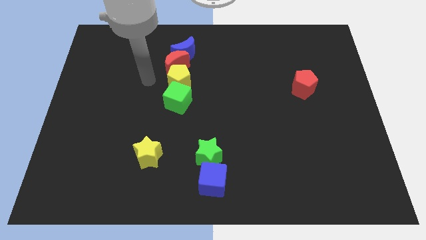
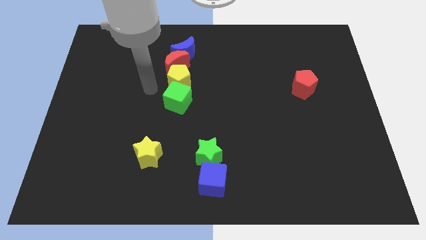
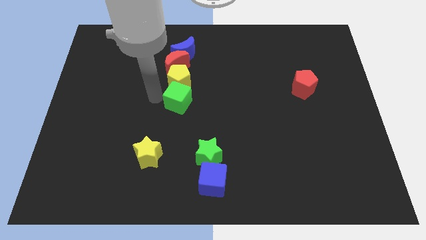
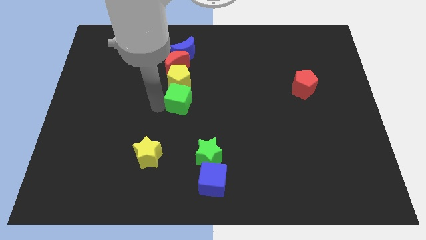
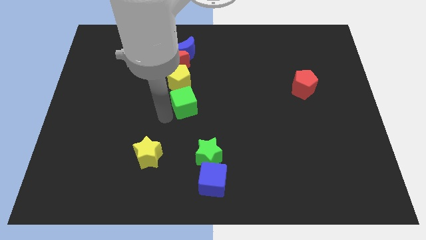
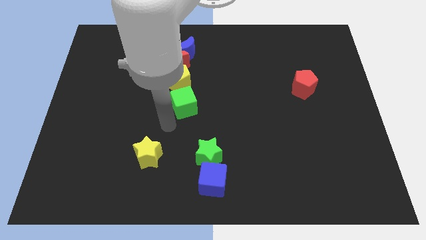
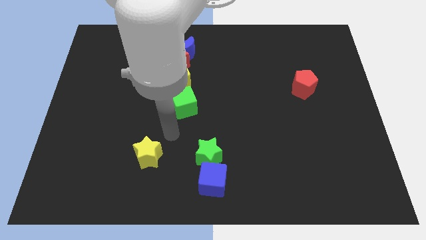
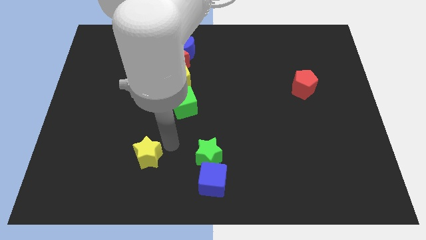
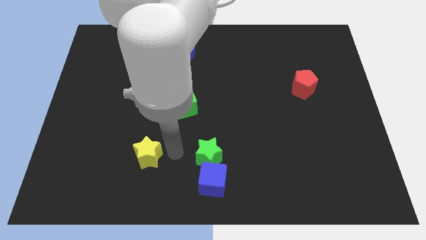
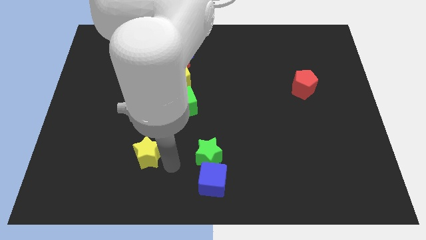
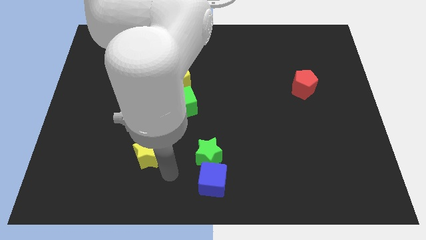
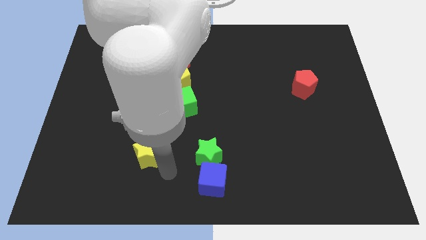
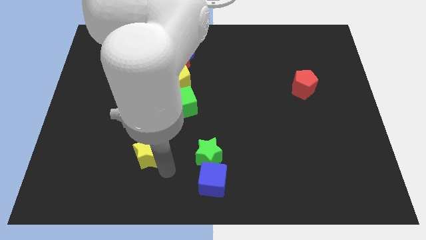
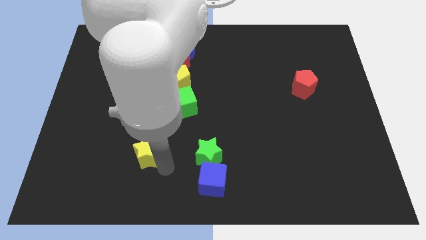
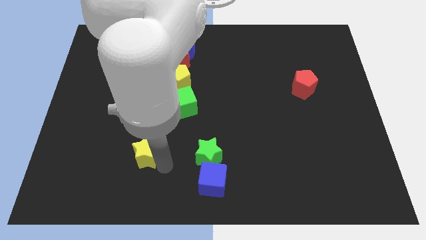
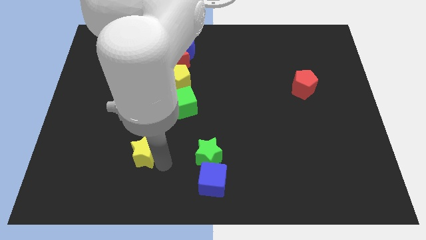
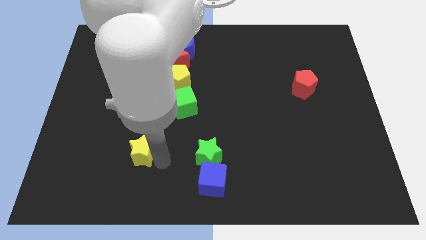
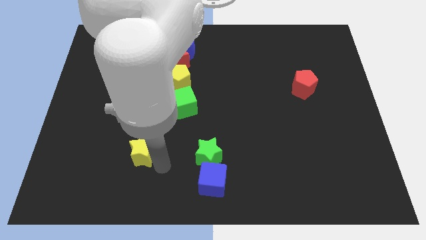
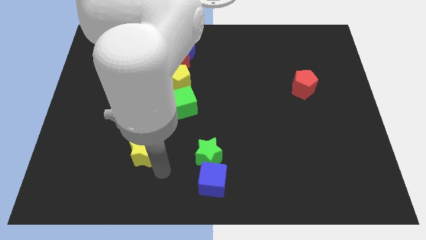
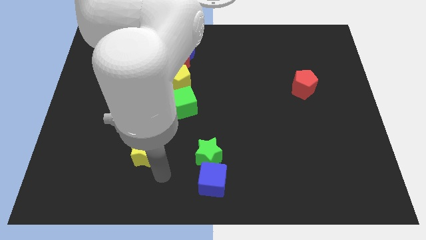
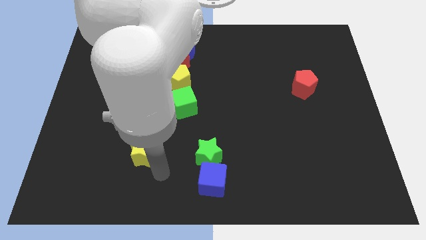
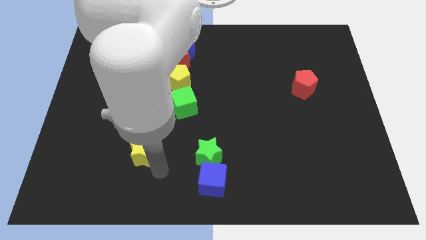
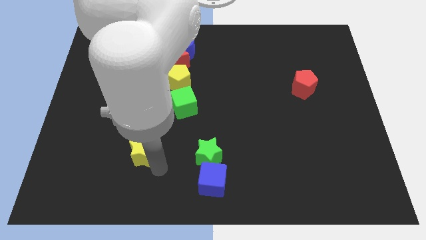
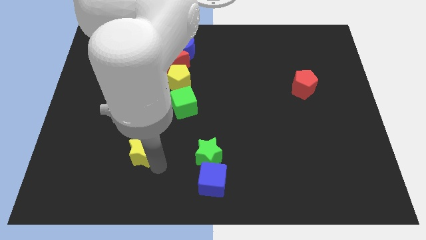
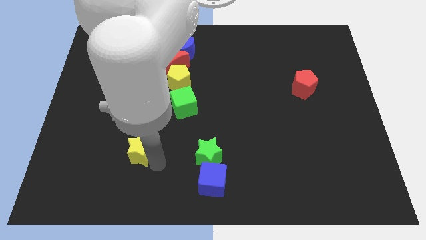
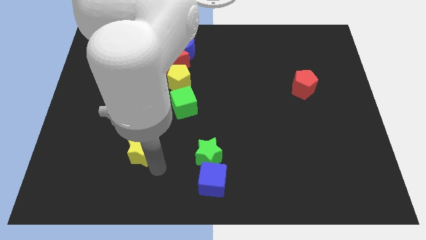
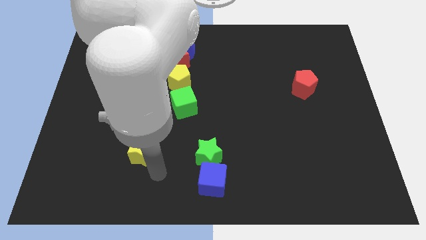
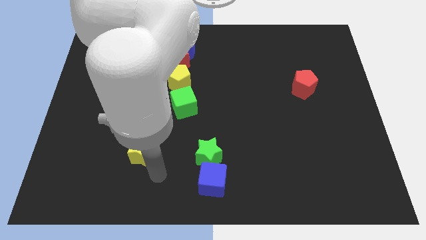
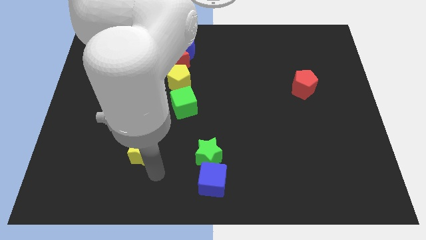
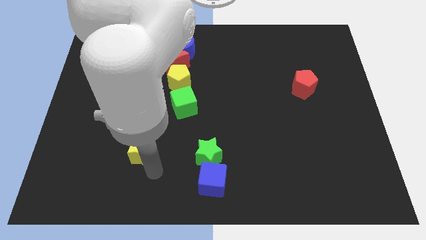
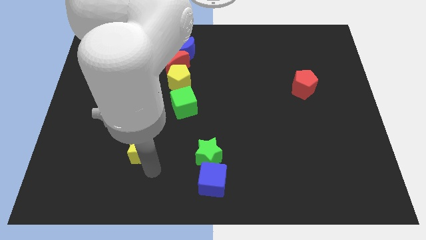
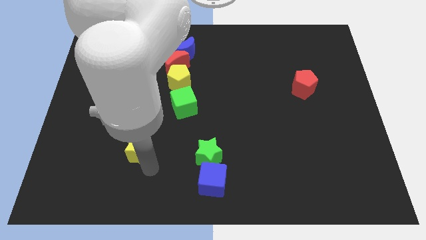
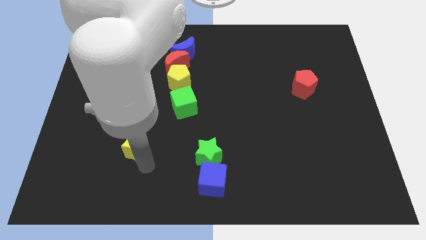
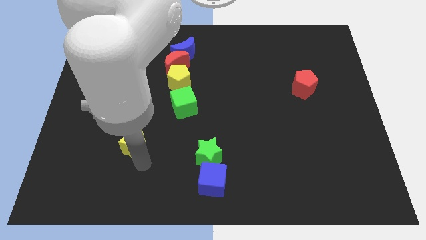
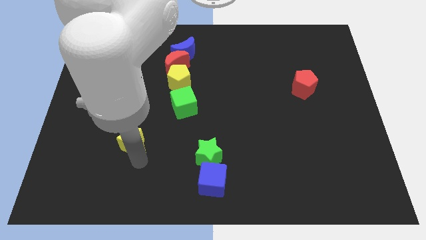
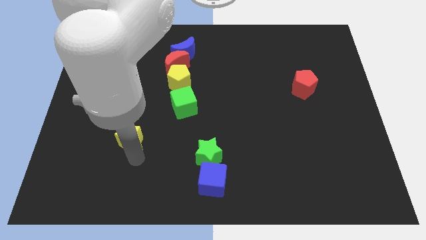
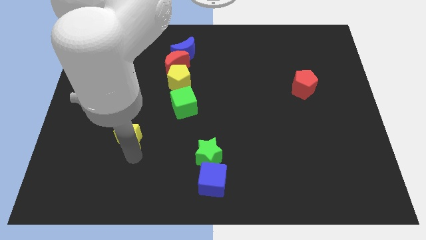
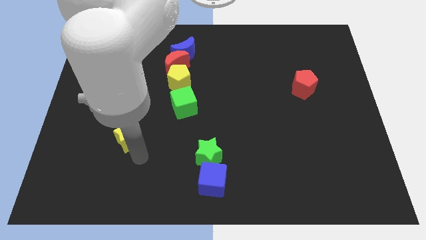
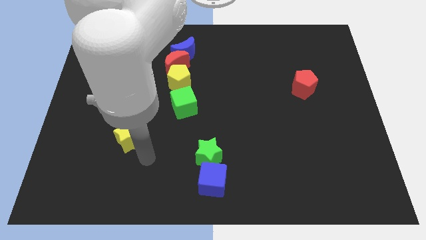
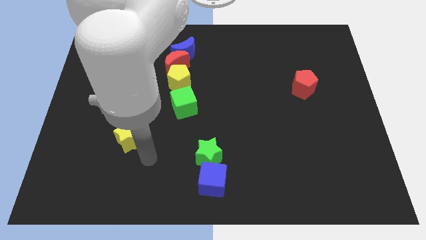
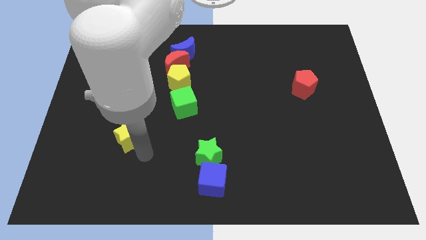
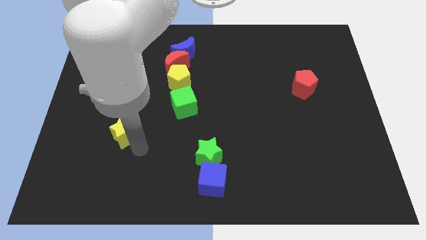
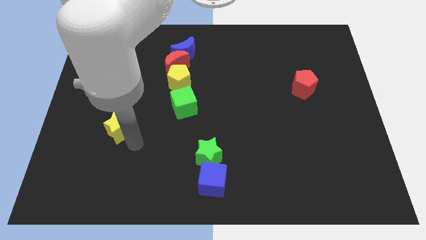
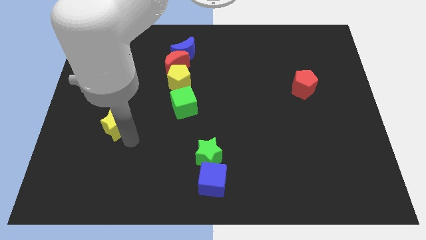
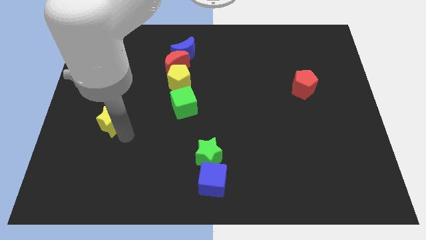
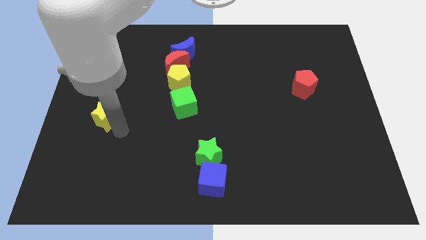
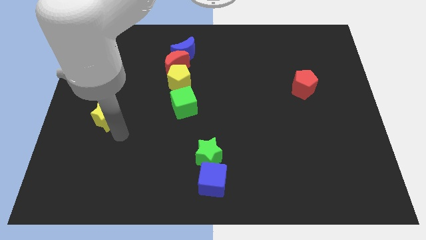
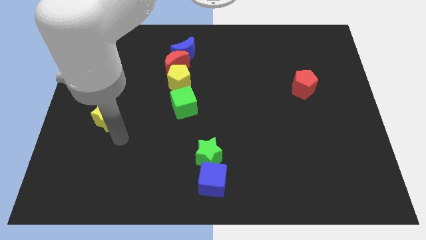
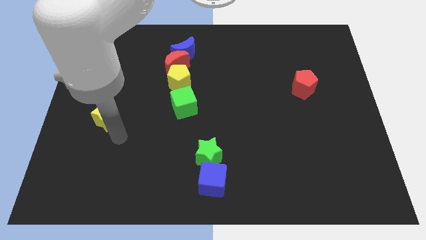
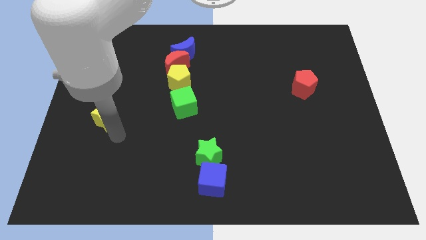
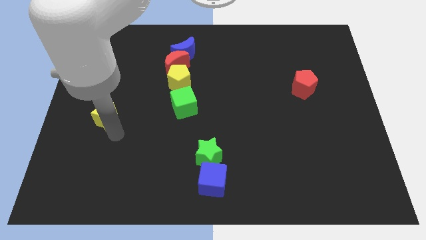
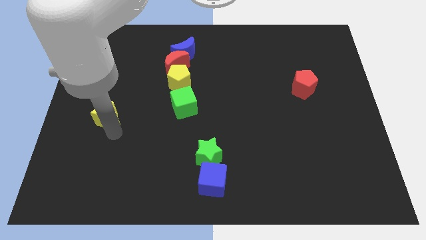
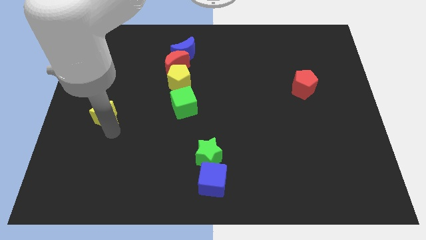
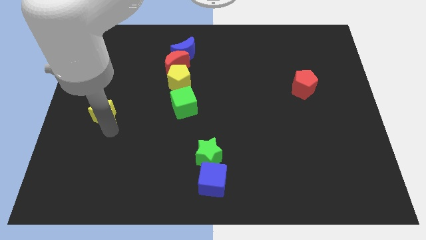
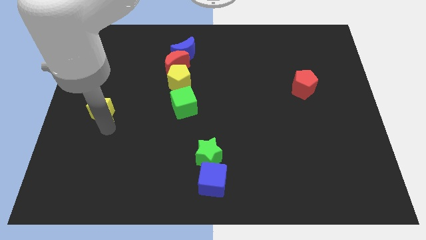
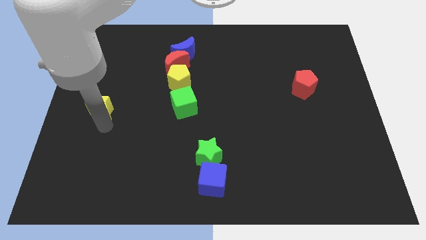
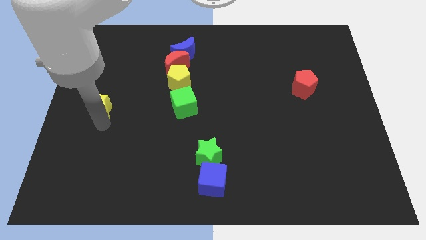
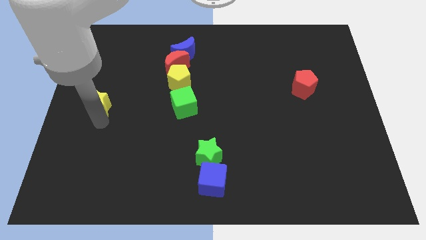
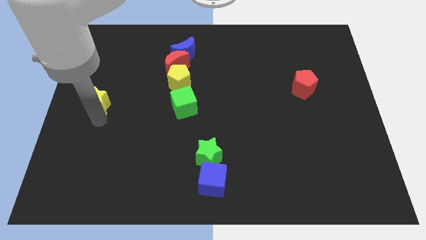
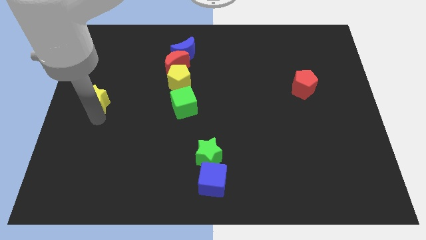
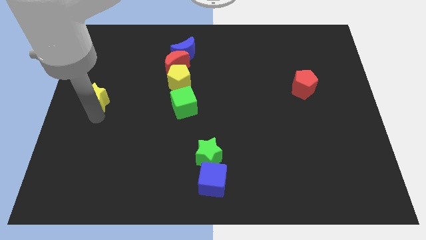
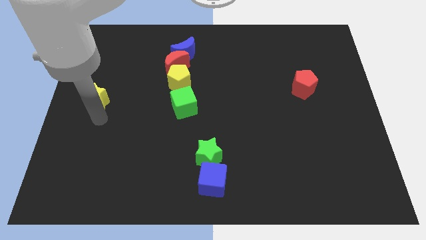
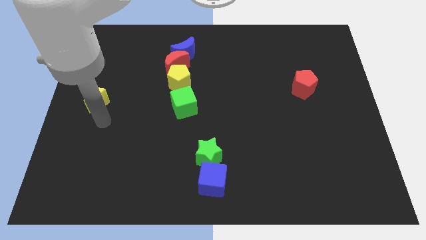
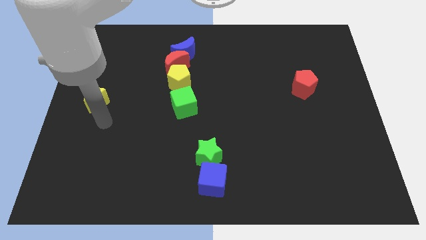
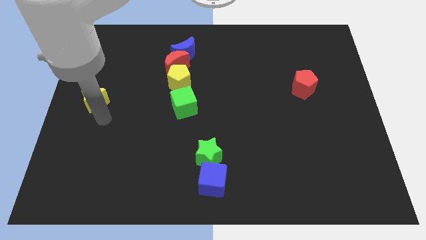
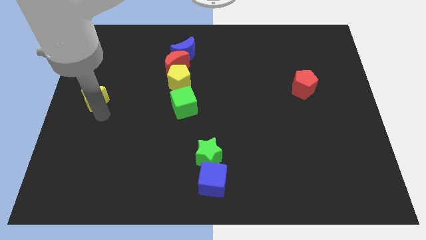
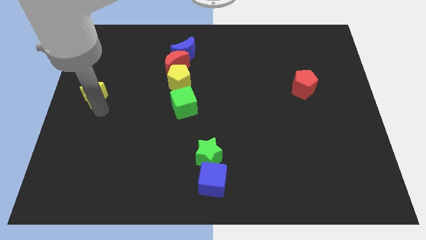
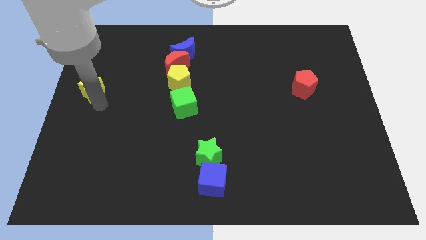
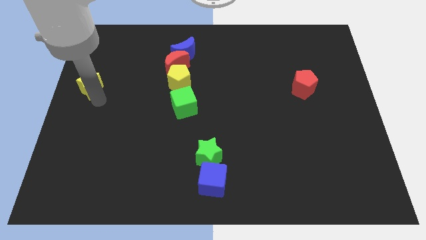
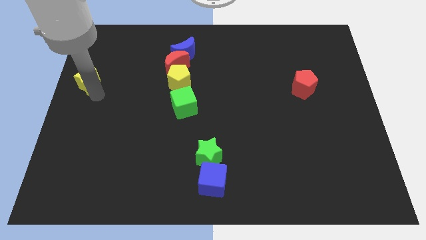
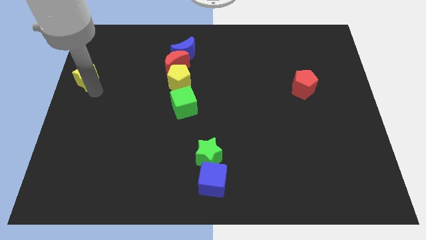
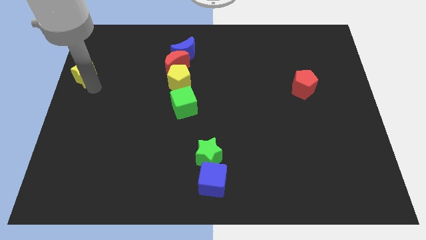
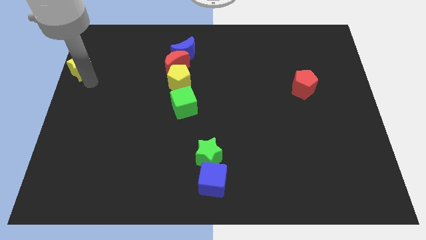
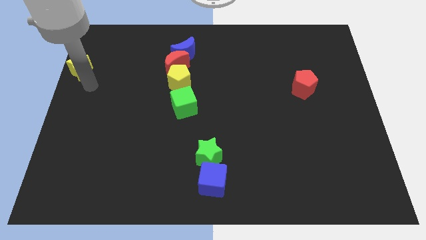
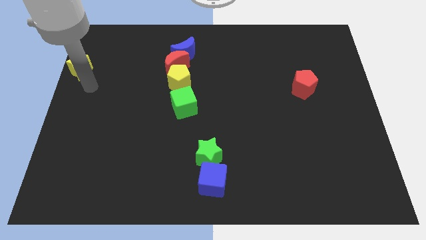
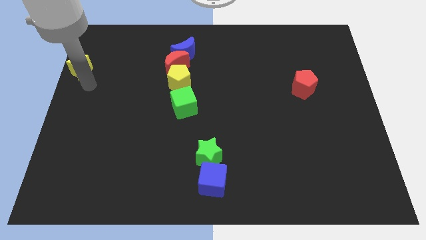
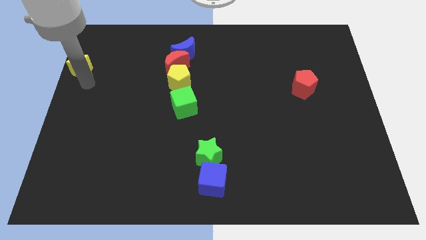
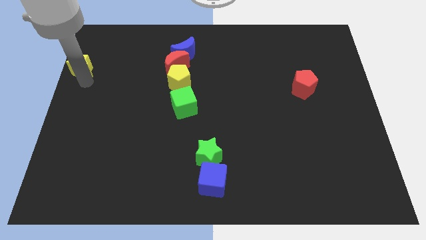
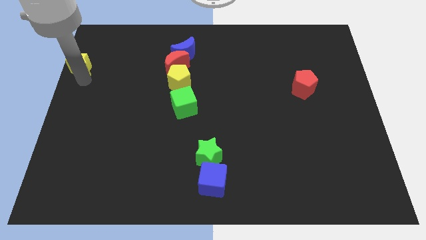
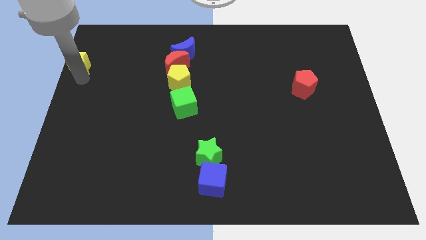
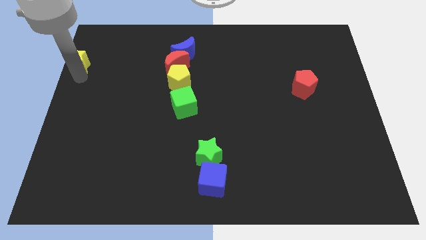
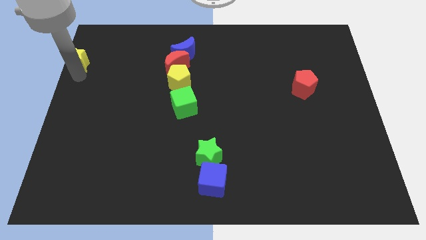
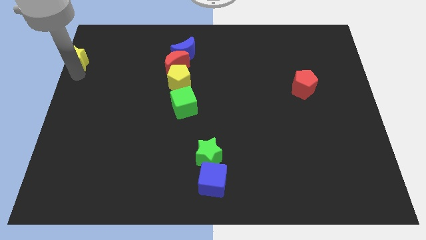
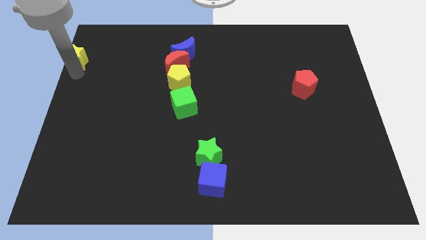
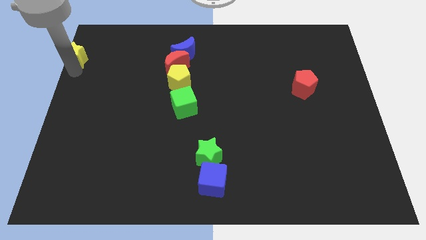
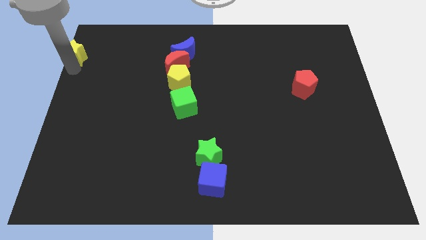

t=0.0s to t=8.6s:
move the yellow star to the top left corner
